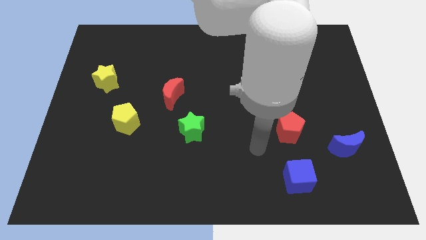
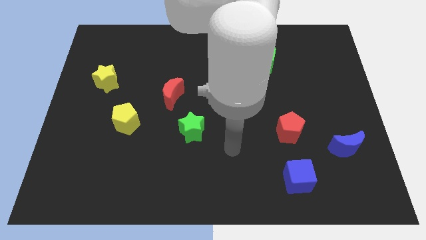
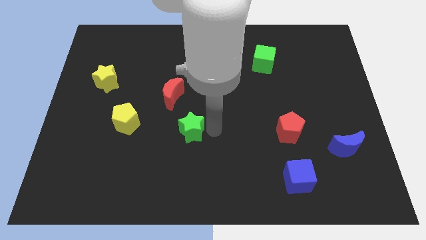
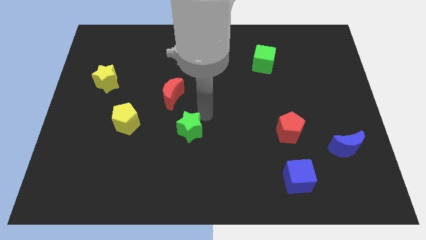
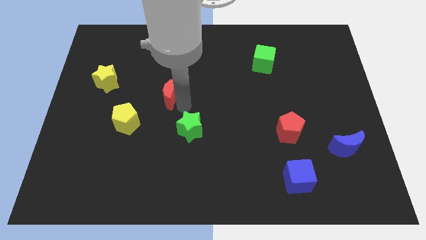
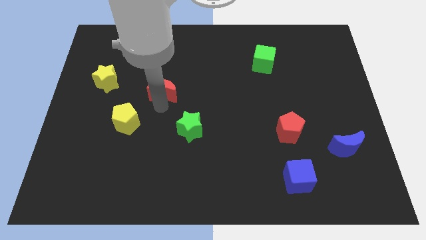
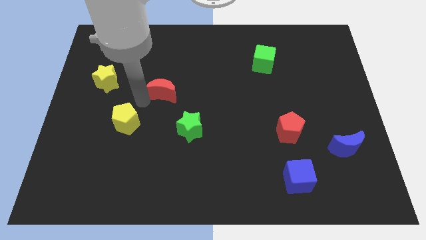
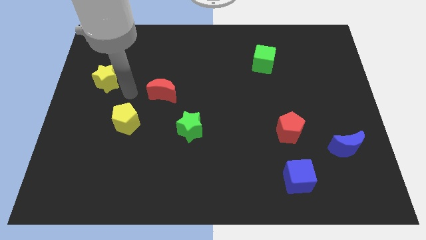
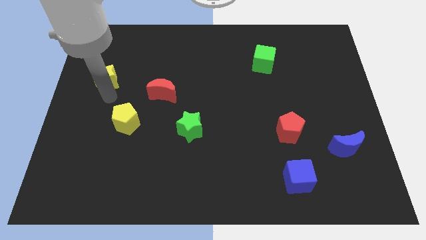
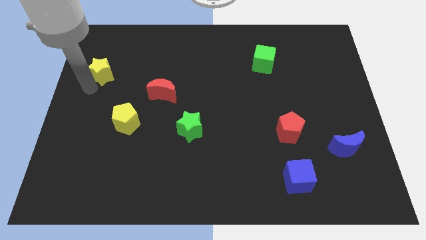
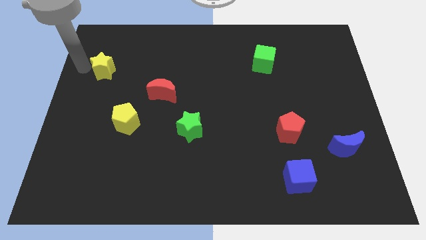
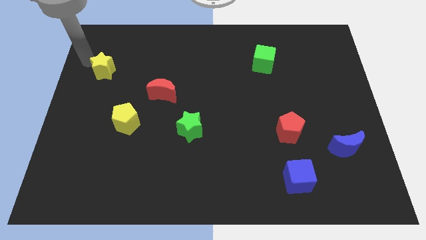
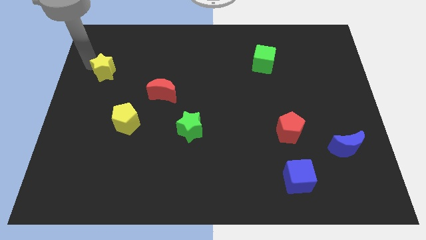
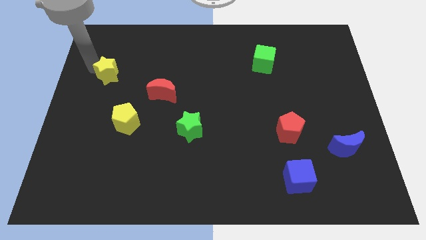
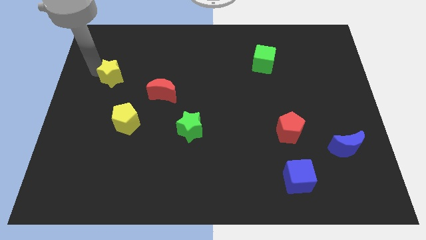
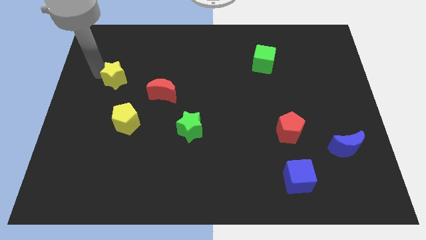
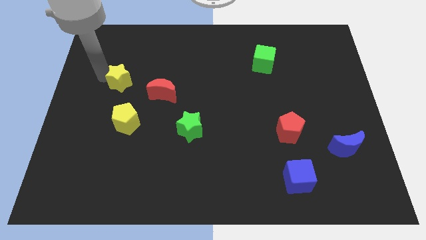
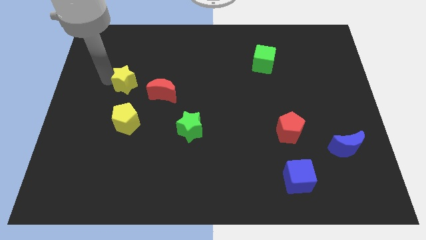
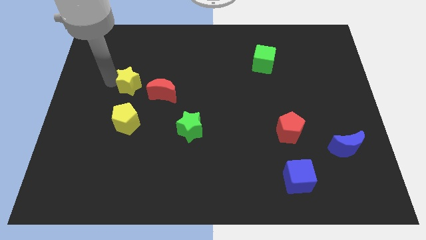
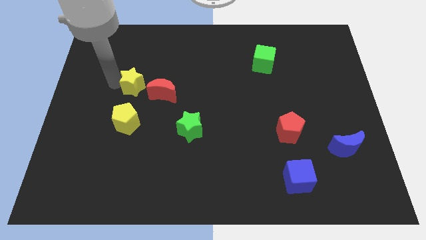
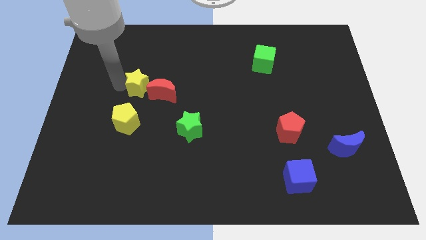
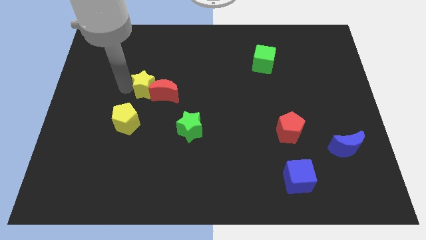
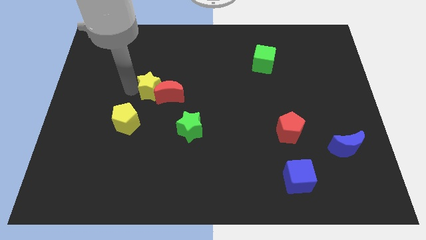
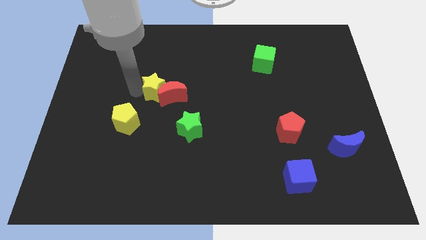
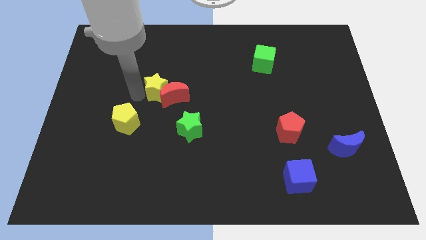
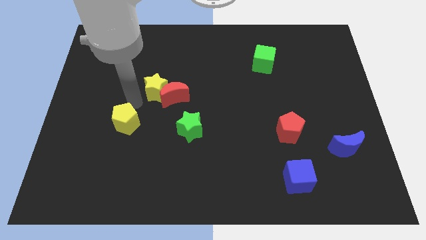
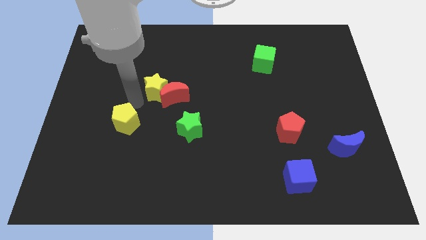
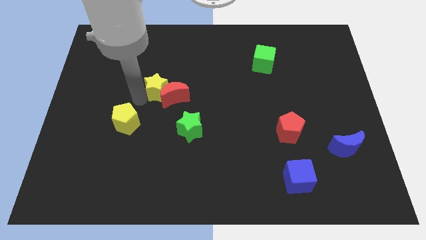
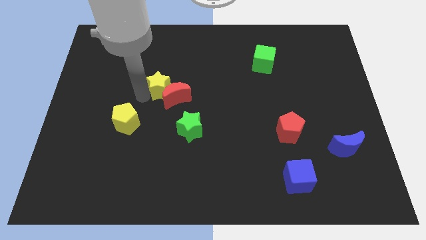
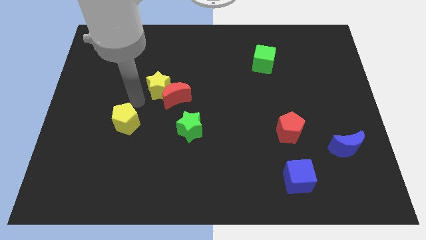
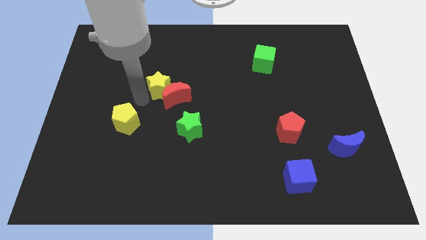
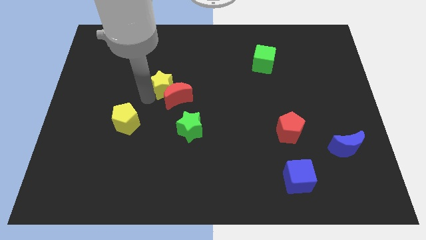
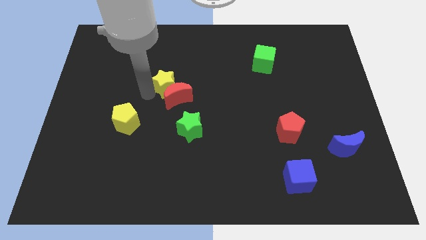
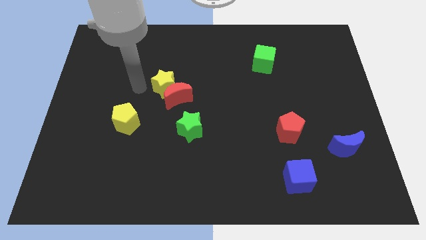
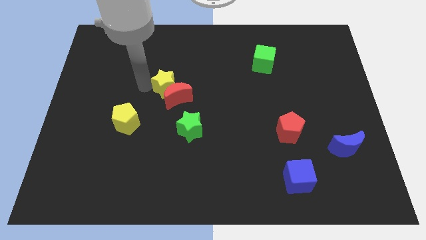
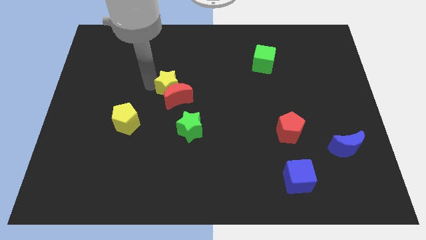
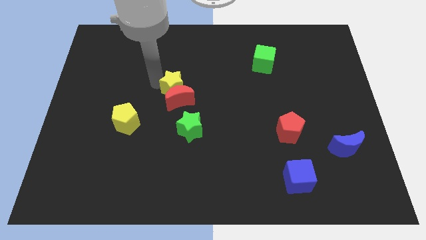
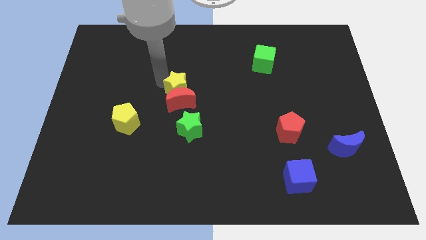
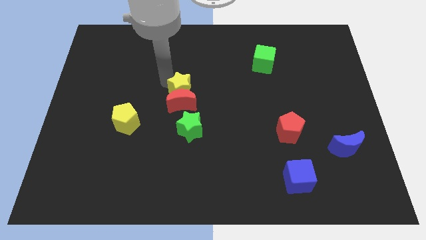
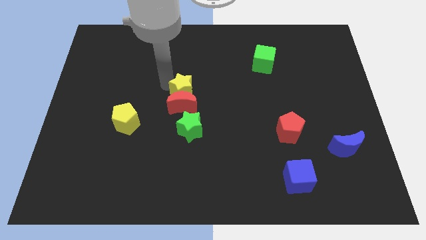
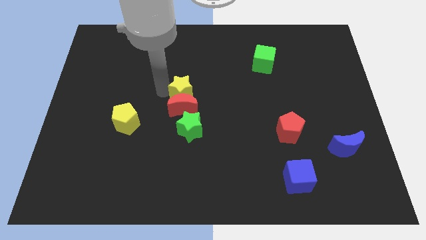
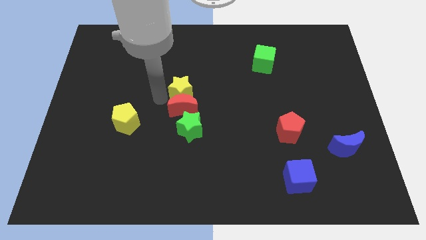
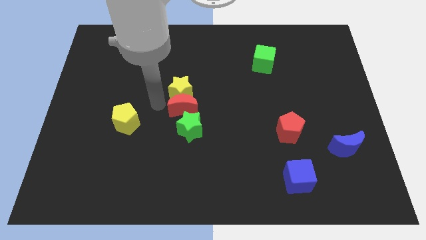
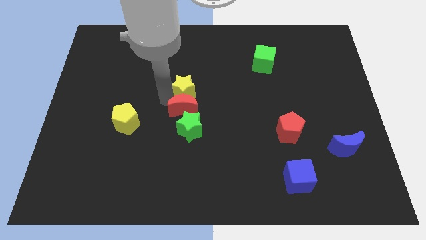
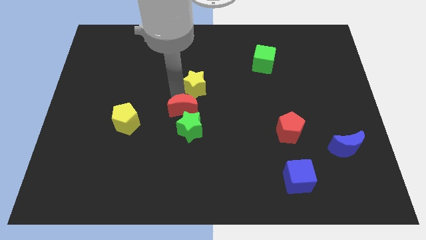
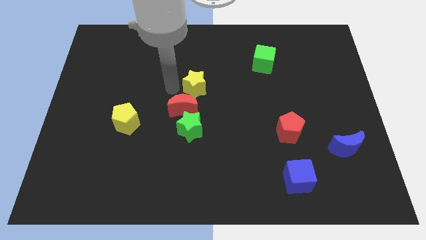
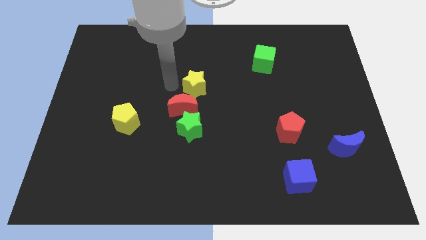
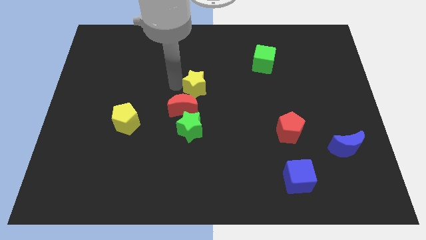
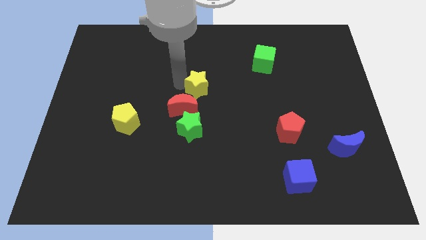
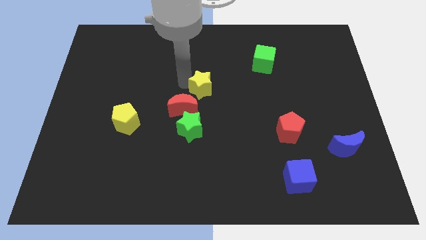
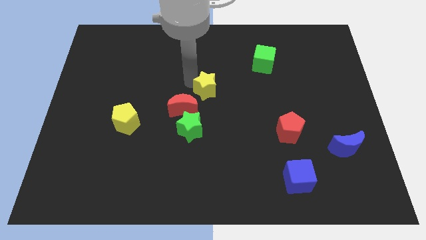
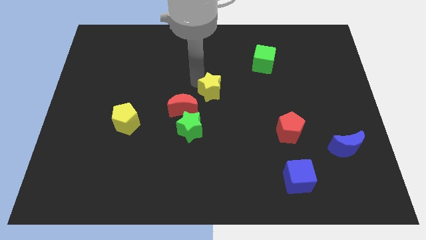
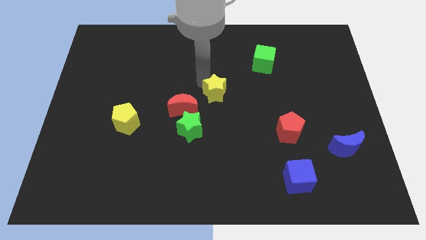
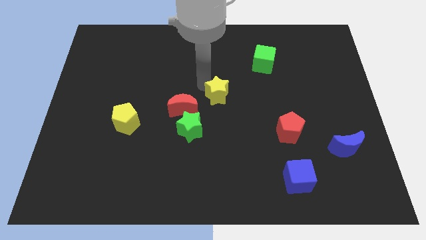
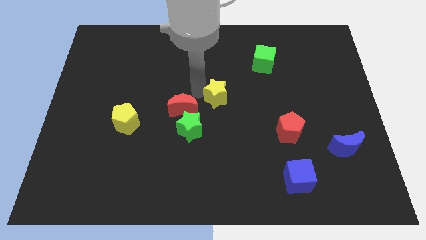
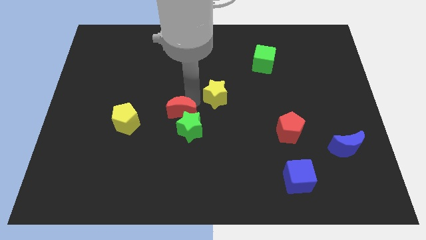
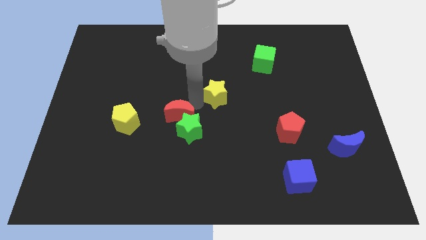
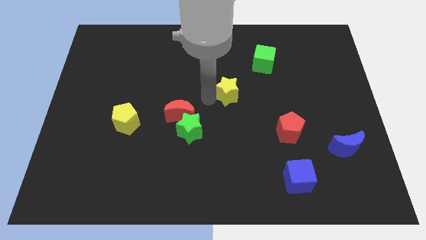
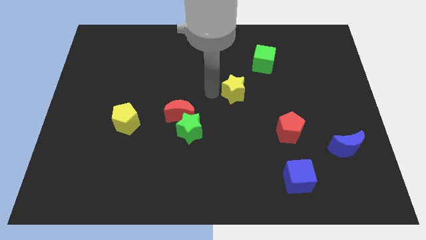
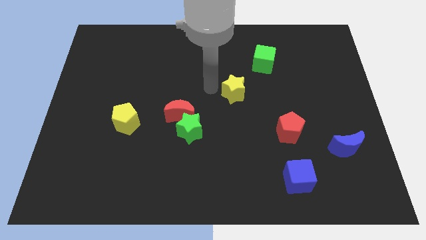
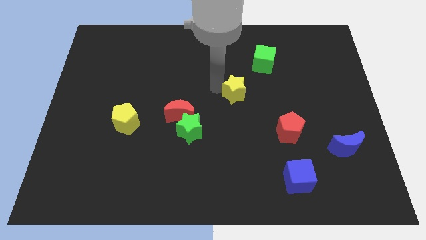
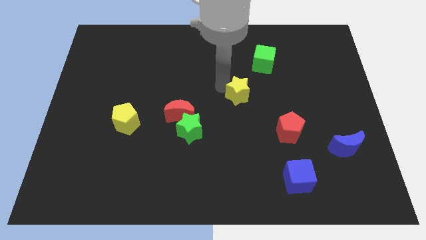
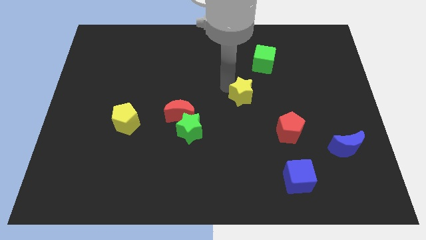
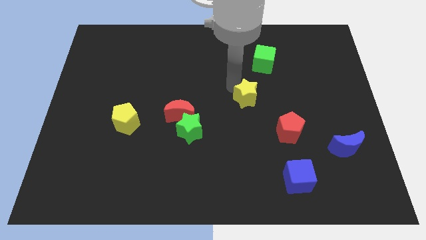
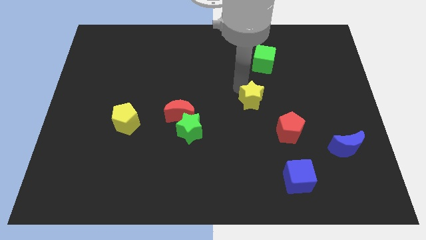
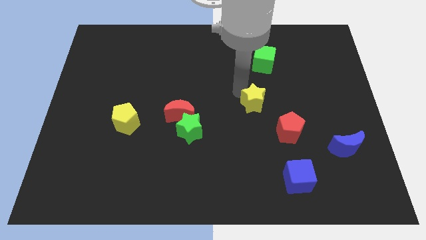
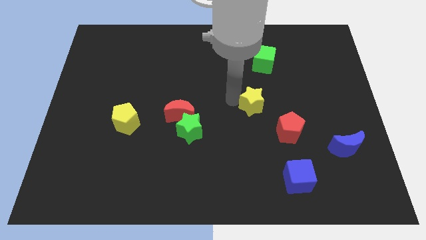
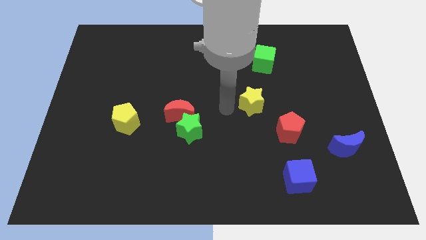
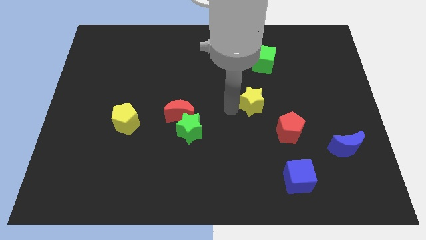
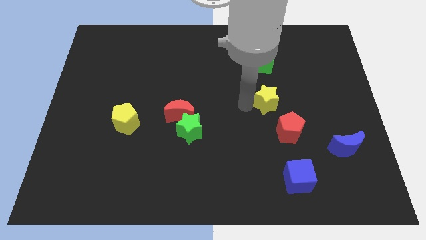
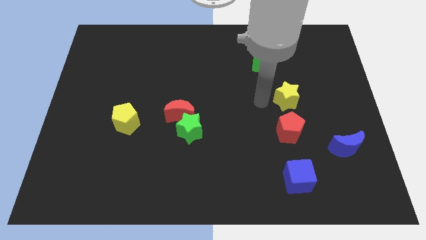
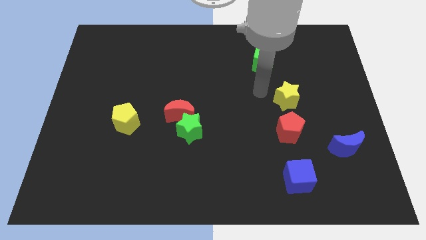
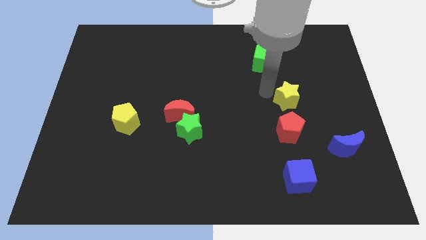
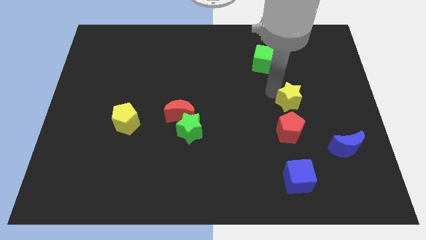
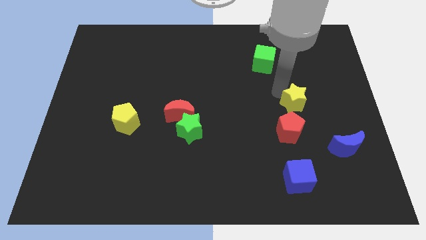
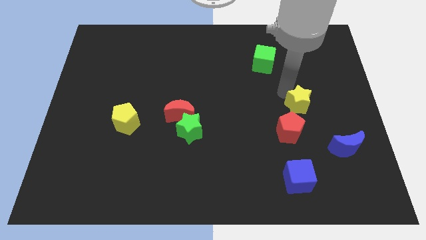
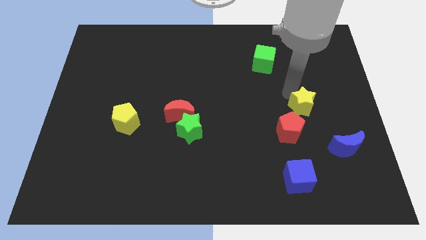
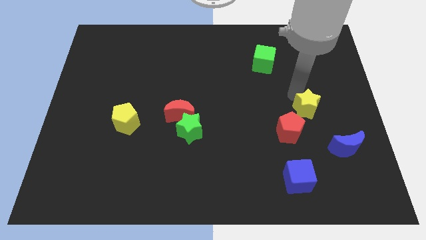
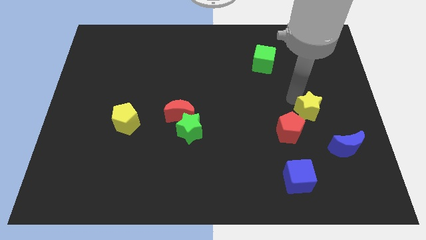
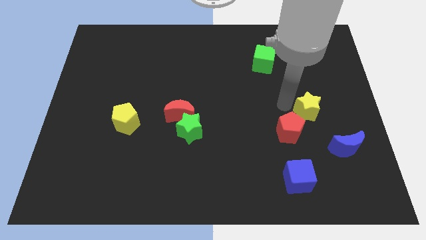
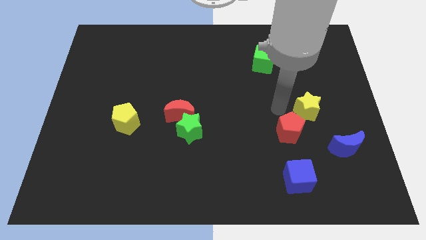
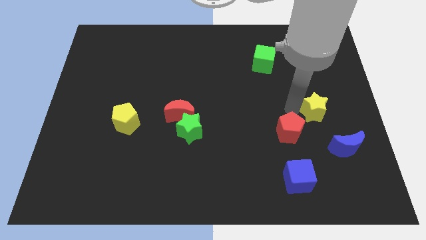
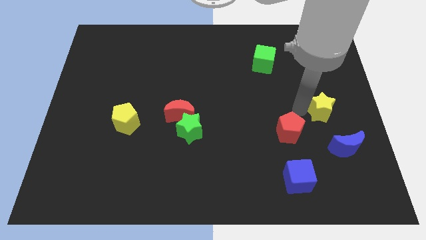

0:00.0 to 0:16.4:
slide the yellow star to the top of the blue moon
